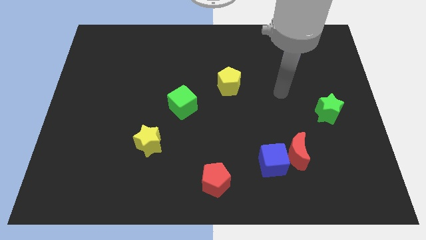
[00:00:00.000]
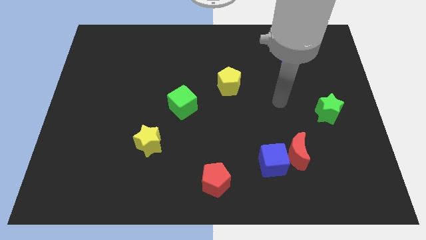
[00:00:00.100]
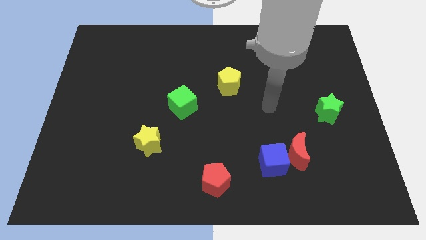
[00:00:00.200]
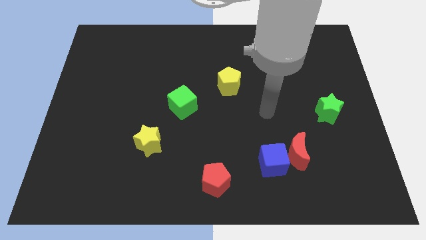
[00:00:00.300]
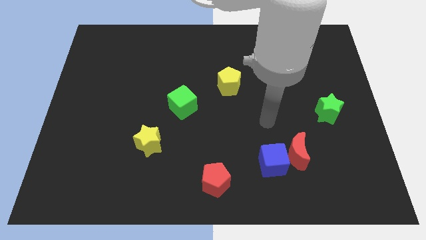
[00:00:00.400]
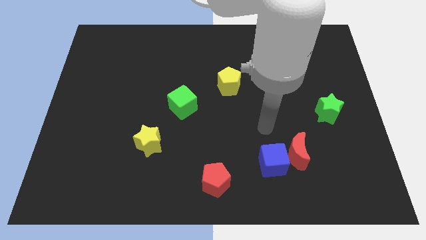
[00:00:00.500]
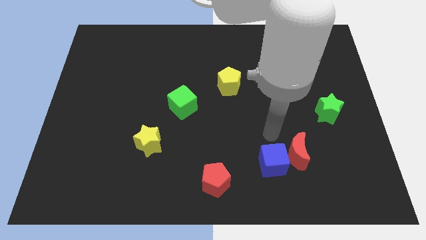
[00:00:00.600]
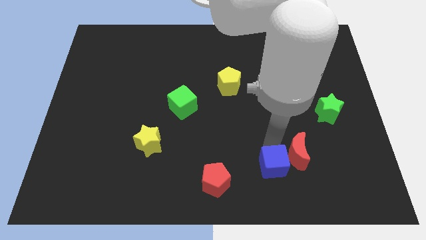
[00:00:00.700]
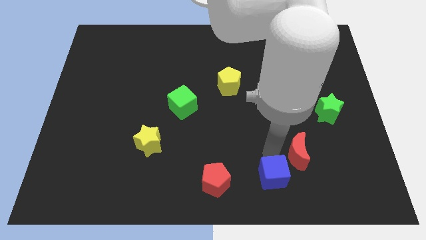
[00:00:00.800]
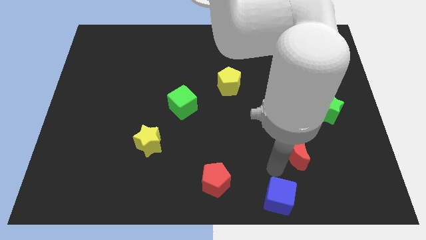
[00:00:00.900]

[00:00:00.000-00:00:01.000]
separate the red moon from the blue cube

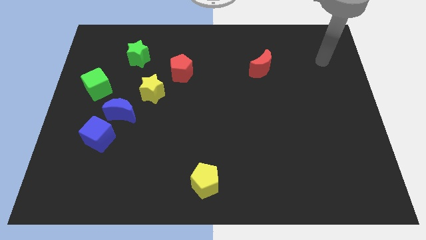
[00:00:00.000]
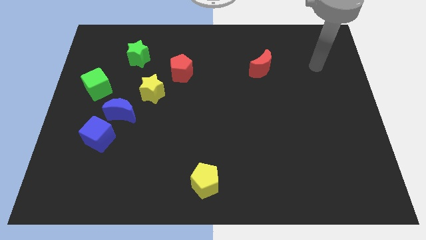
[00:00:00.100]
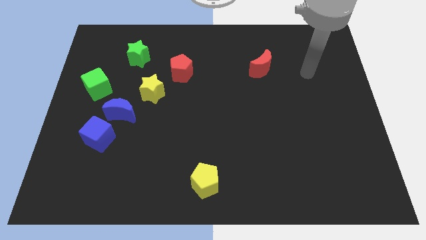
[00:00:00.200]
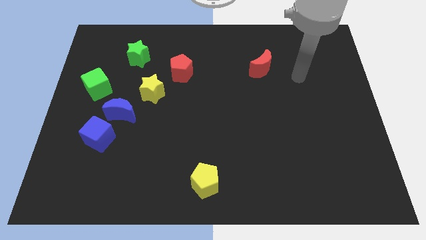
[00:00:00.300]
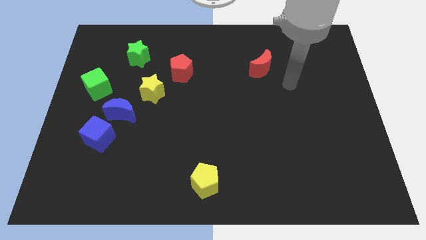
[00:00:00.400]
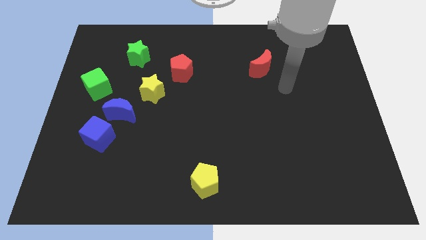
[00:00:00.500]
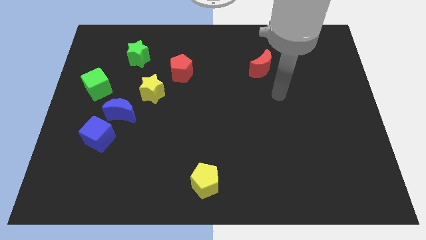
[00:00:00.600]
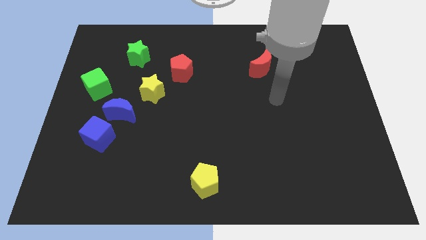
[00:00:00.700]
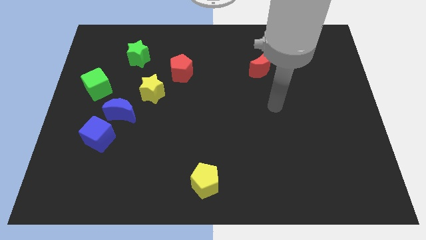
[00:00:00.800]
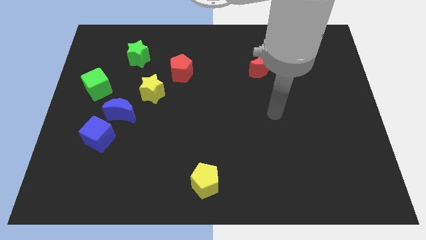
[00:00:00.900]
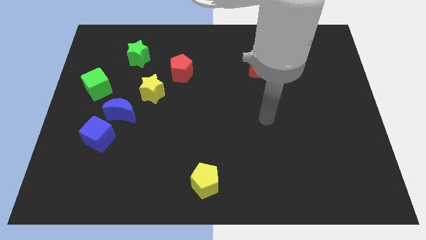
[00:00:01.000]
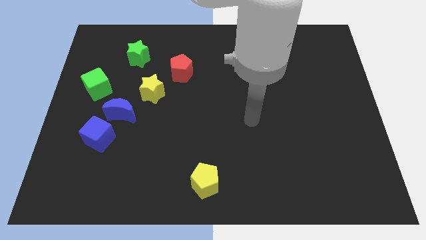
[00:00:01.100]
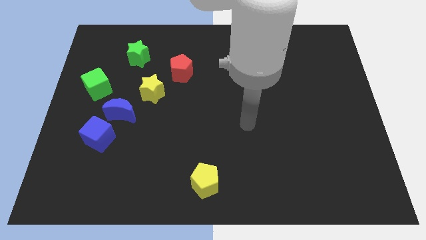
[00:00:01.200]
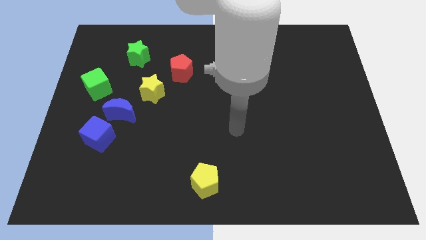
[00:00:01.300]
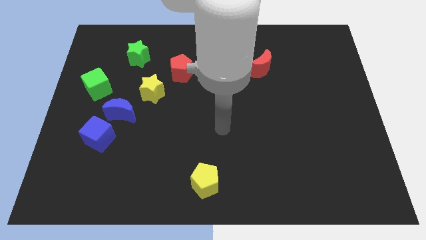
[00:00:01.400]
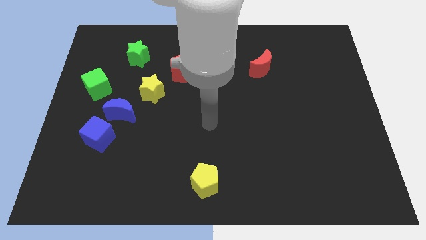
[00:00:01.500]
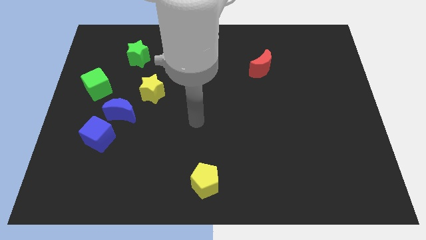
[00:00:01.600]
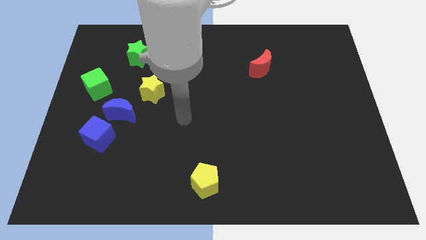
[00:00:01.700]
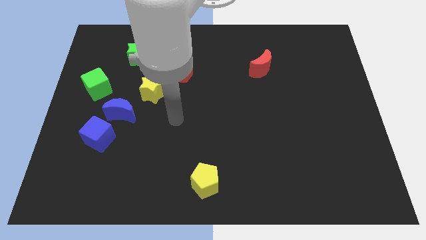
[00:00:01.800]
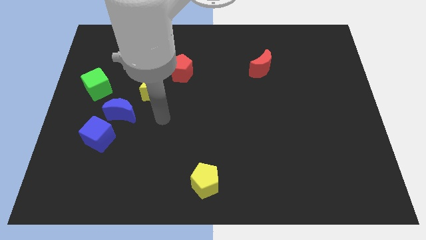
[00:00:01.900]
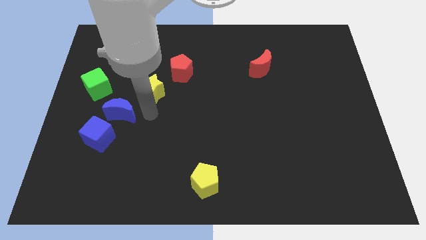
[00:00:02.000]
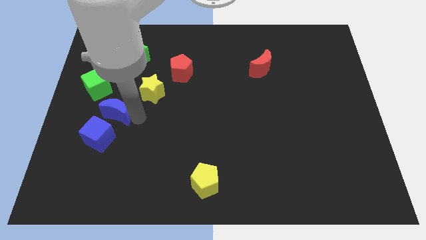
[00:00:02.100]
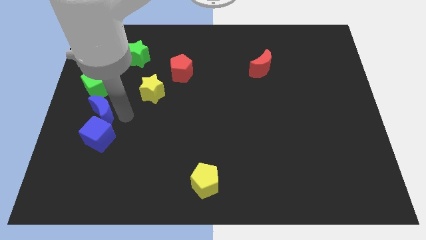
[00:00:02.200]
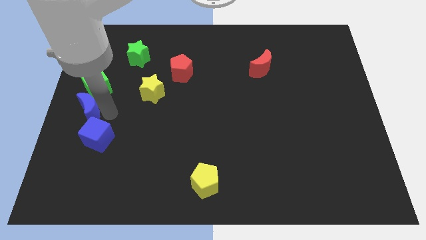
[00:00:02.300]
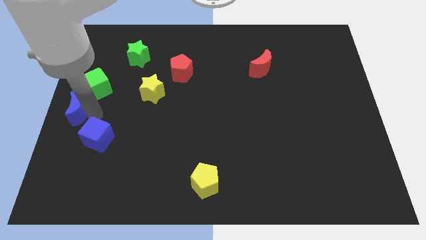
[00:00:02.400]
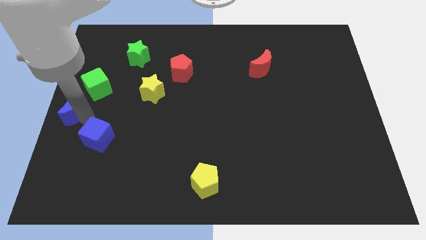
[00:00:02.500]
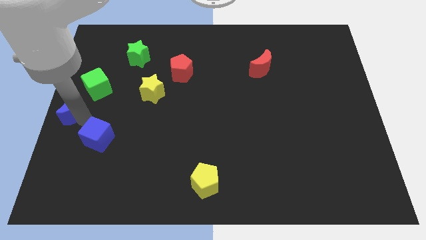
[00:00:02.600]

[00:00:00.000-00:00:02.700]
pull the blue cube apart from the blue moon

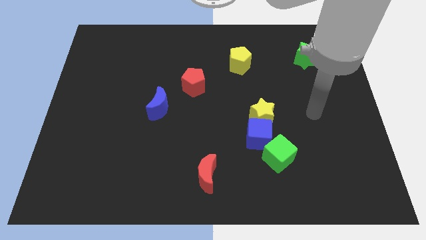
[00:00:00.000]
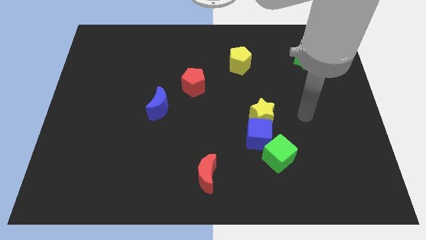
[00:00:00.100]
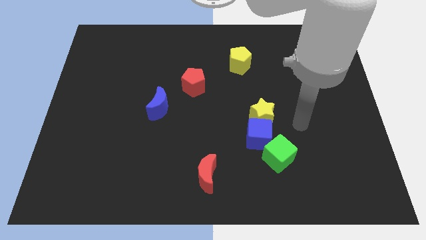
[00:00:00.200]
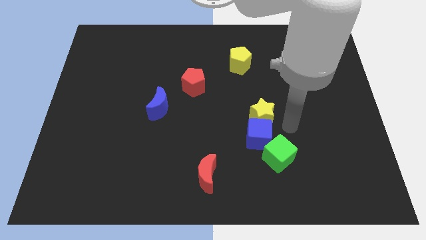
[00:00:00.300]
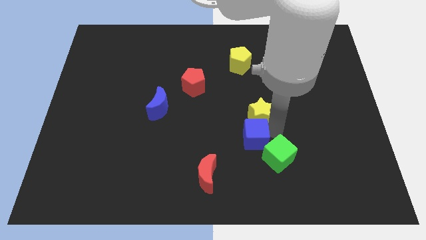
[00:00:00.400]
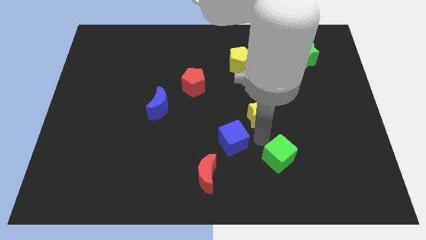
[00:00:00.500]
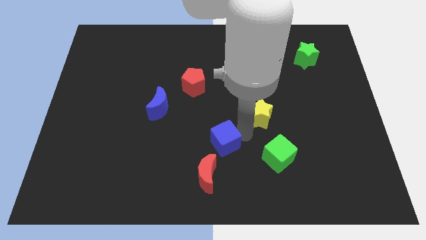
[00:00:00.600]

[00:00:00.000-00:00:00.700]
pull the yellow star apart from the blue cube

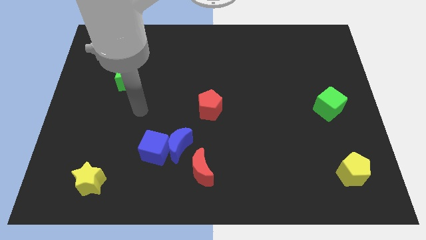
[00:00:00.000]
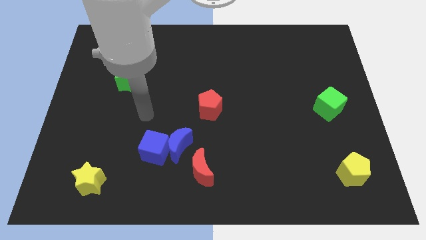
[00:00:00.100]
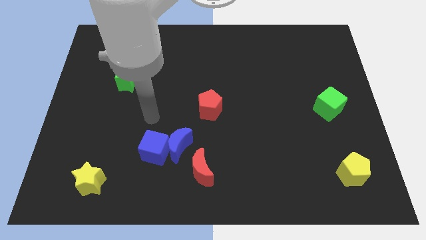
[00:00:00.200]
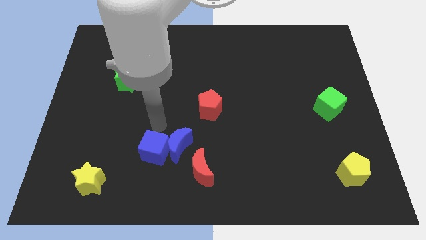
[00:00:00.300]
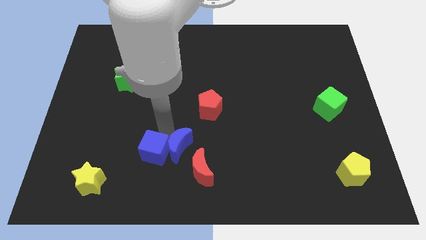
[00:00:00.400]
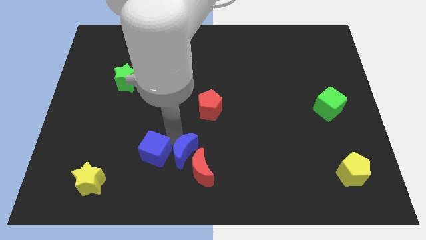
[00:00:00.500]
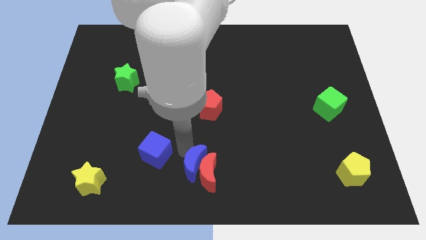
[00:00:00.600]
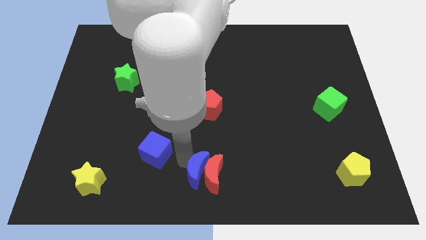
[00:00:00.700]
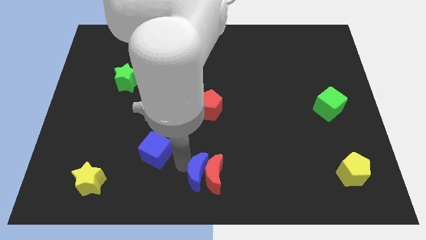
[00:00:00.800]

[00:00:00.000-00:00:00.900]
separate the blue cube from the blue moon

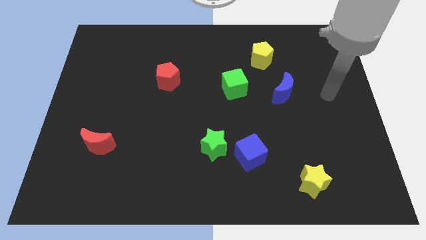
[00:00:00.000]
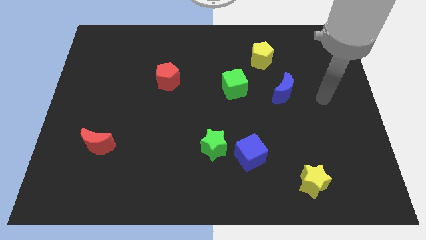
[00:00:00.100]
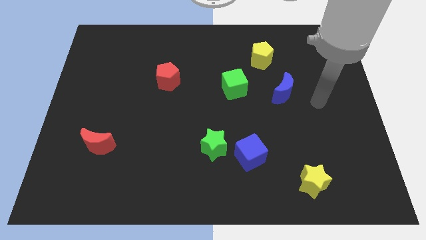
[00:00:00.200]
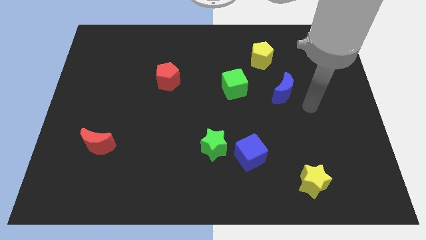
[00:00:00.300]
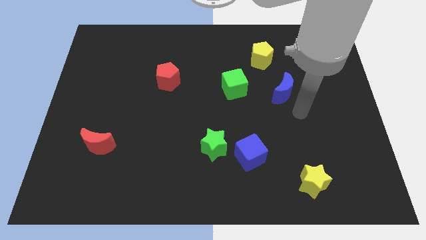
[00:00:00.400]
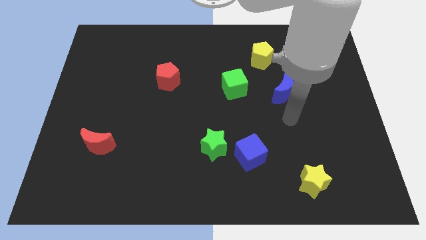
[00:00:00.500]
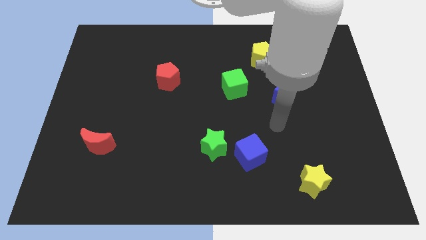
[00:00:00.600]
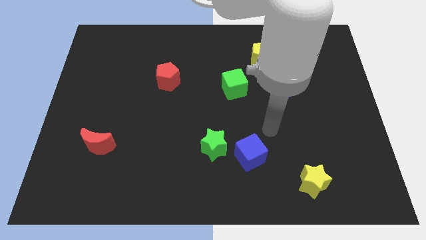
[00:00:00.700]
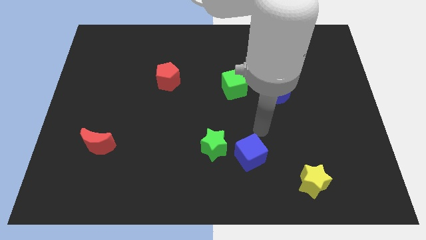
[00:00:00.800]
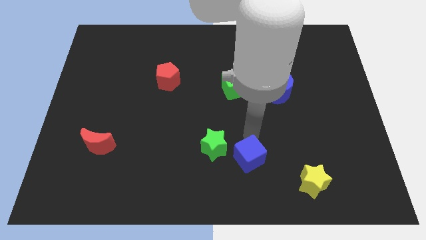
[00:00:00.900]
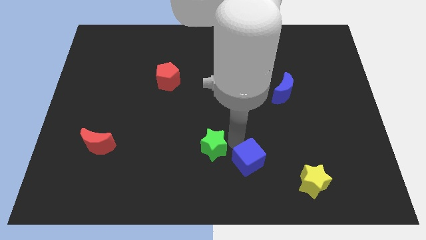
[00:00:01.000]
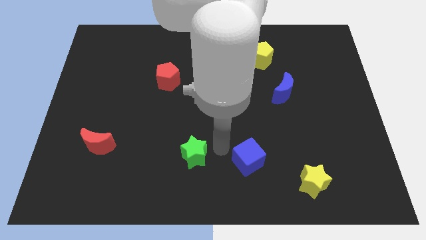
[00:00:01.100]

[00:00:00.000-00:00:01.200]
pull the blue cube apart from the green star

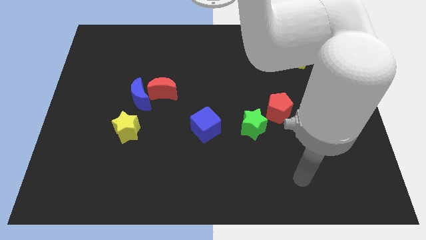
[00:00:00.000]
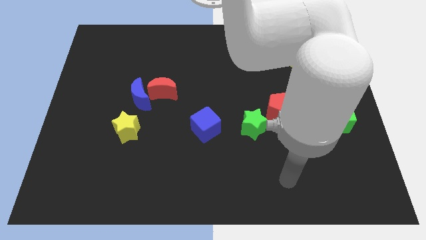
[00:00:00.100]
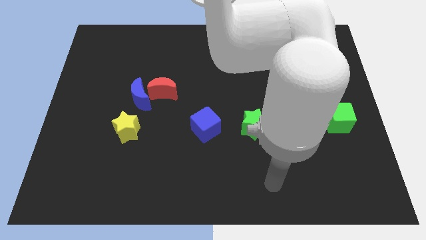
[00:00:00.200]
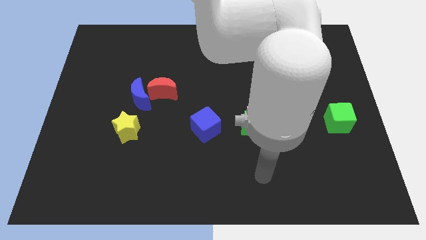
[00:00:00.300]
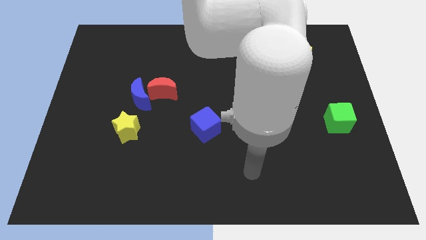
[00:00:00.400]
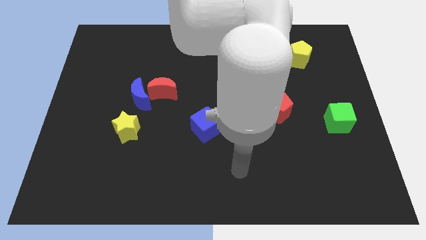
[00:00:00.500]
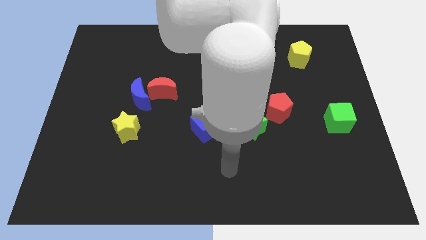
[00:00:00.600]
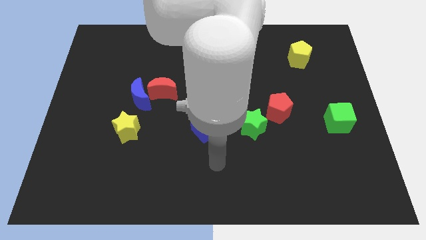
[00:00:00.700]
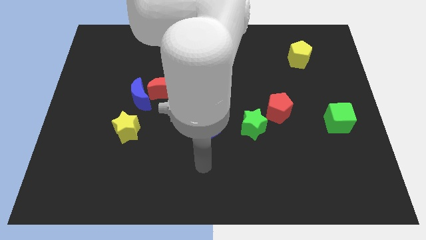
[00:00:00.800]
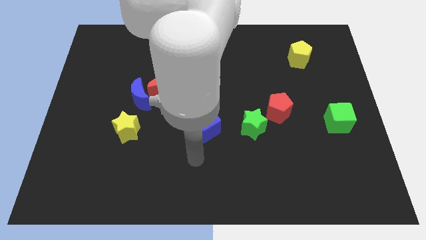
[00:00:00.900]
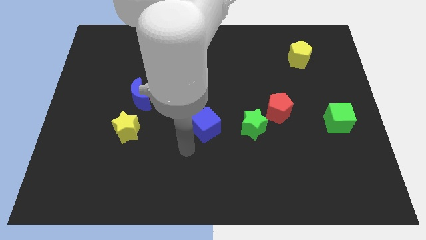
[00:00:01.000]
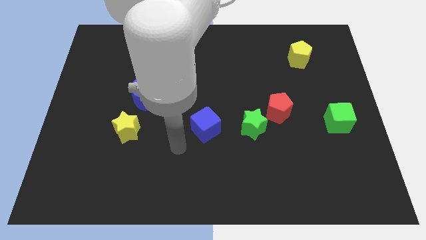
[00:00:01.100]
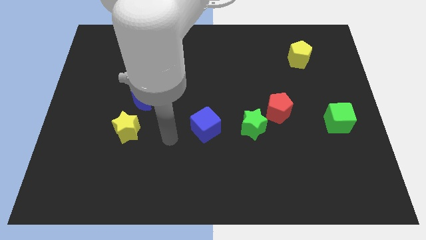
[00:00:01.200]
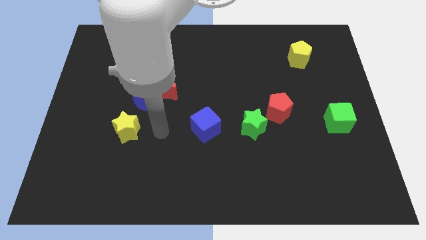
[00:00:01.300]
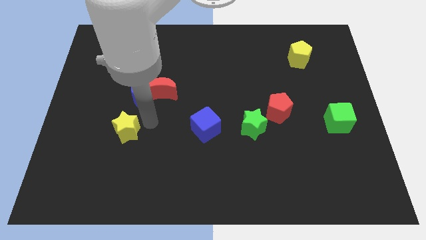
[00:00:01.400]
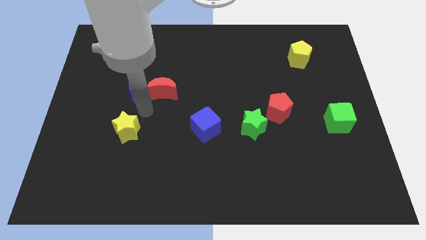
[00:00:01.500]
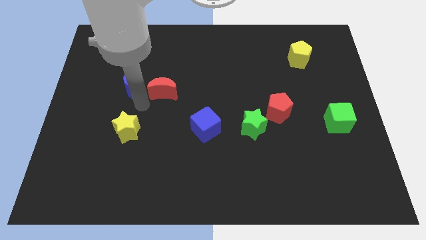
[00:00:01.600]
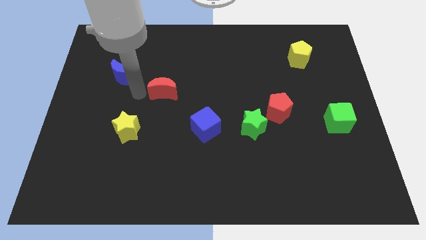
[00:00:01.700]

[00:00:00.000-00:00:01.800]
pull the red moon apart from the blue moon

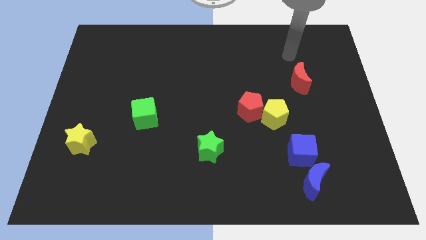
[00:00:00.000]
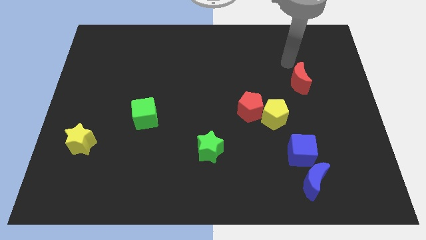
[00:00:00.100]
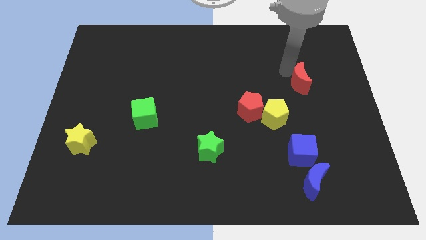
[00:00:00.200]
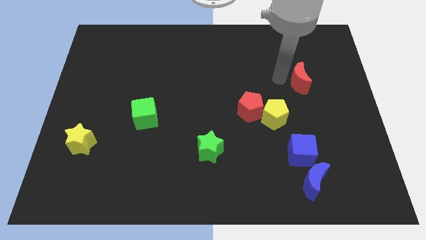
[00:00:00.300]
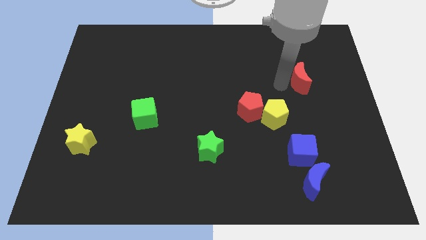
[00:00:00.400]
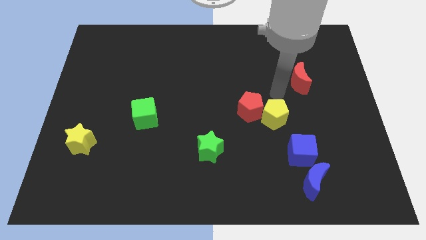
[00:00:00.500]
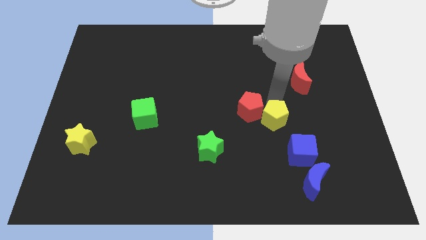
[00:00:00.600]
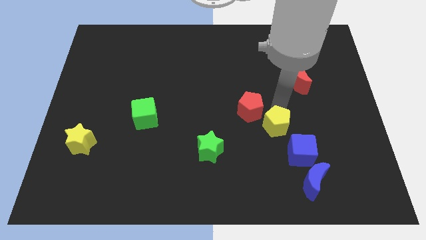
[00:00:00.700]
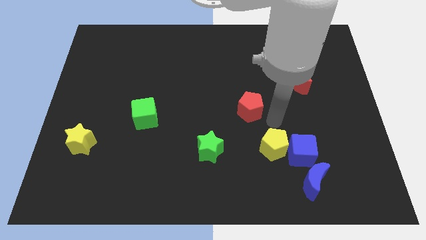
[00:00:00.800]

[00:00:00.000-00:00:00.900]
pull the red pentagon apart from the yellow pentagon

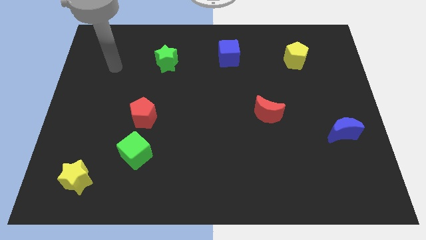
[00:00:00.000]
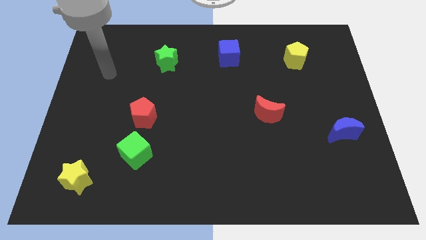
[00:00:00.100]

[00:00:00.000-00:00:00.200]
separate the red pentagon from the green cube
